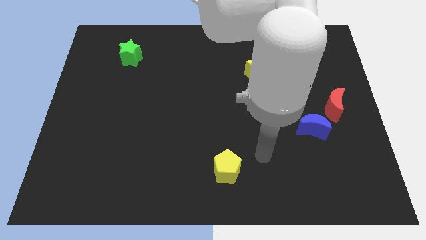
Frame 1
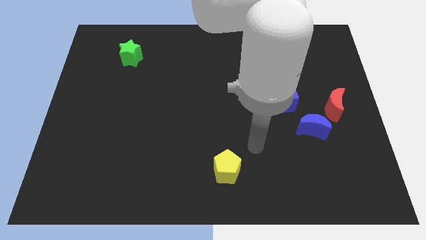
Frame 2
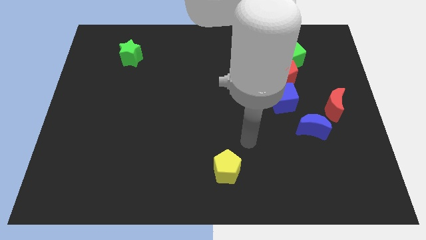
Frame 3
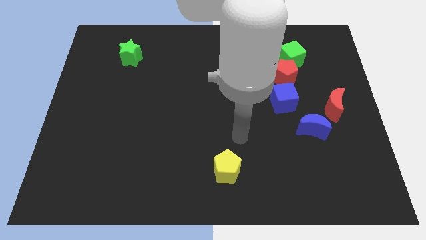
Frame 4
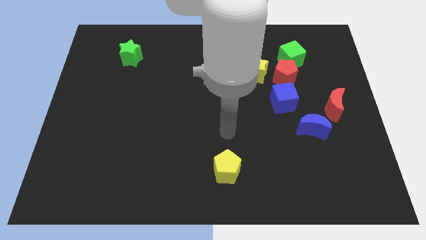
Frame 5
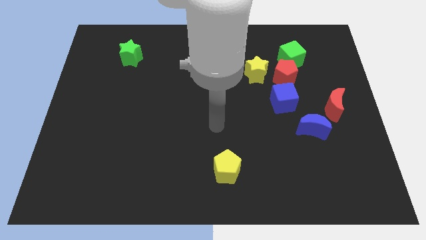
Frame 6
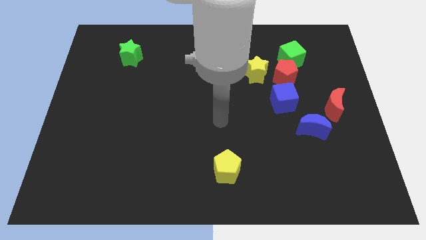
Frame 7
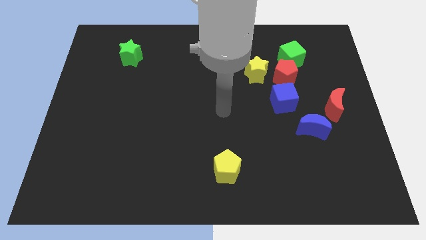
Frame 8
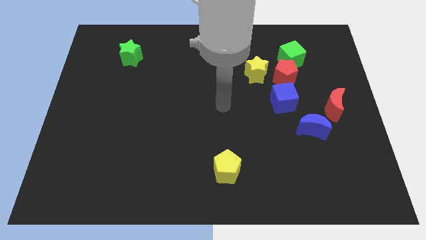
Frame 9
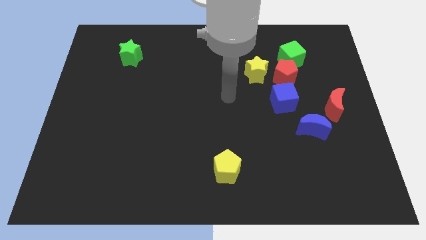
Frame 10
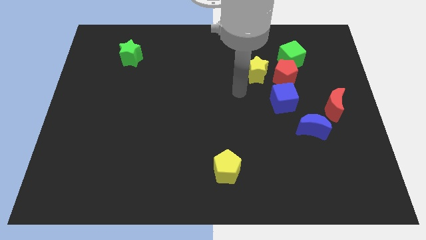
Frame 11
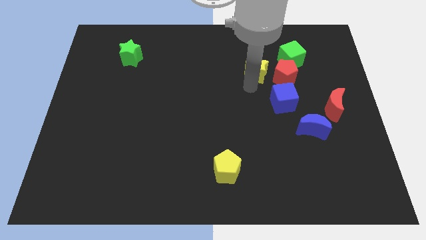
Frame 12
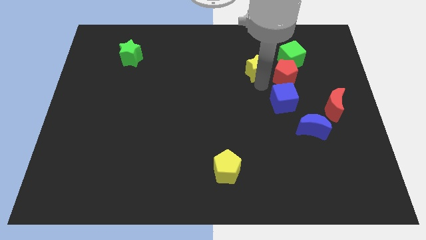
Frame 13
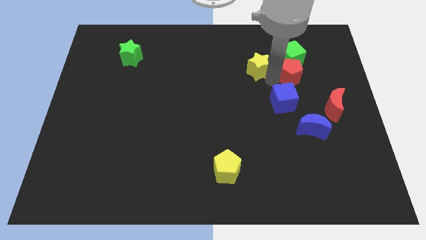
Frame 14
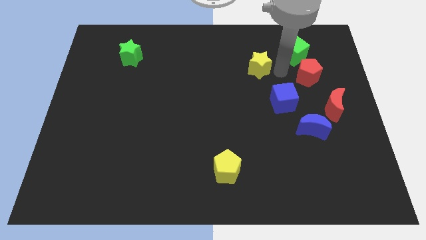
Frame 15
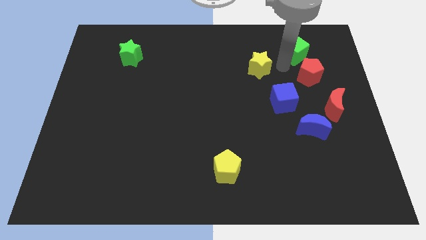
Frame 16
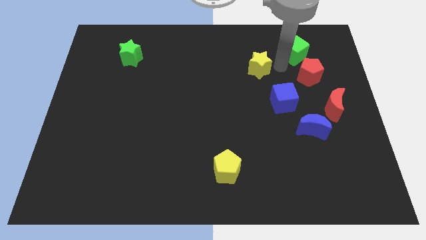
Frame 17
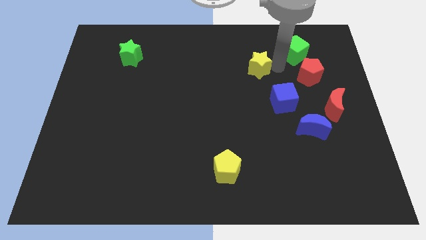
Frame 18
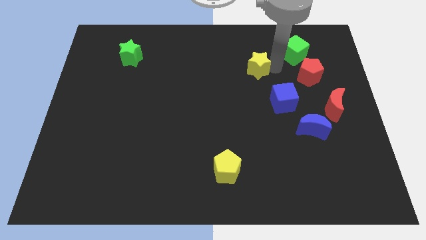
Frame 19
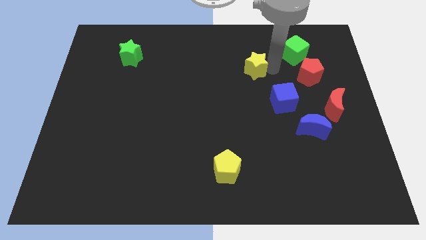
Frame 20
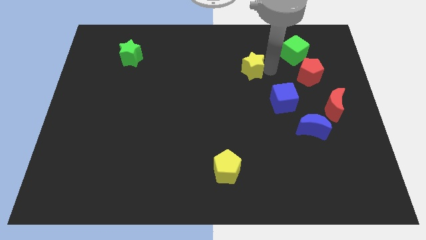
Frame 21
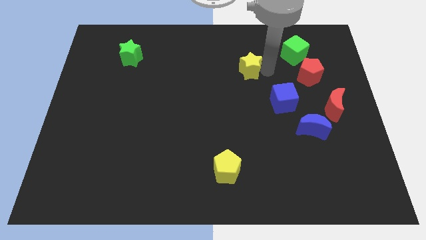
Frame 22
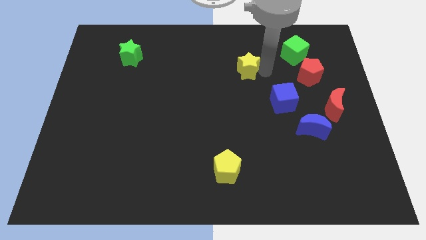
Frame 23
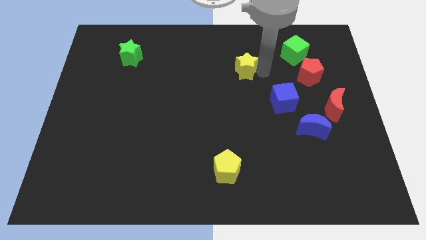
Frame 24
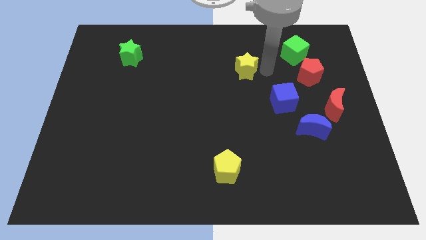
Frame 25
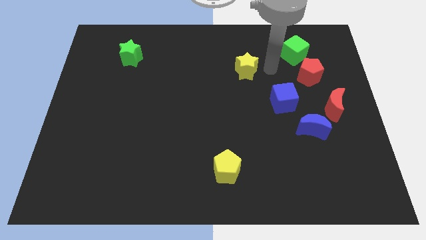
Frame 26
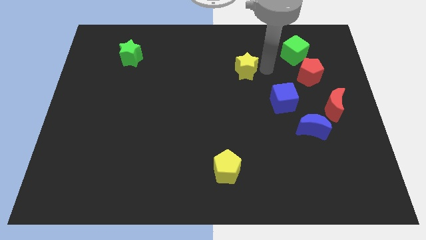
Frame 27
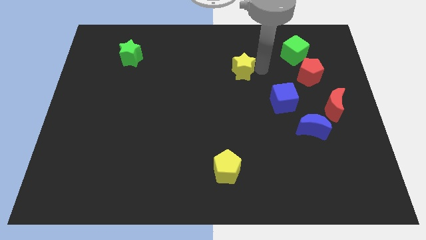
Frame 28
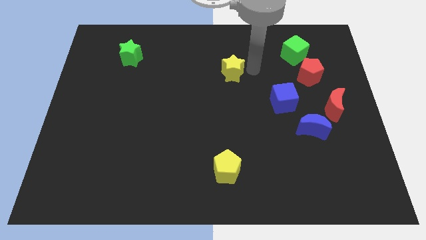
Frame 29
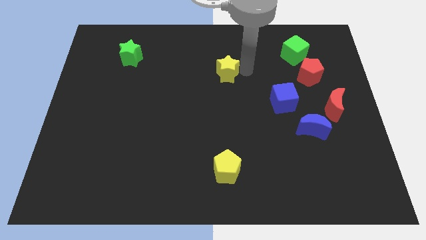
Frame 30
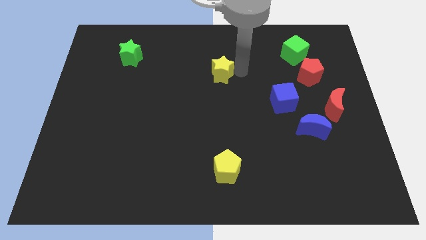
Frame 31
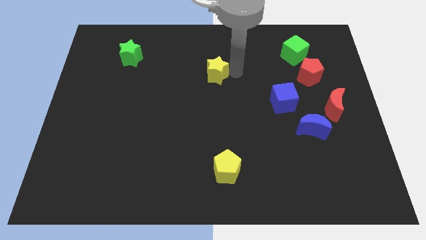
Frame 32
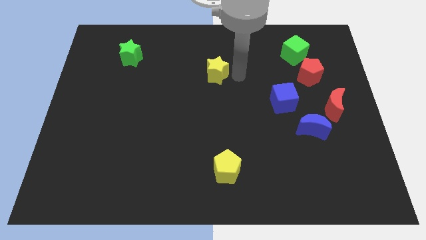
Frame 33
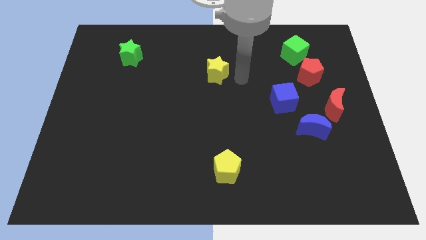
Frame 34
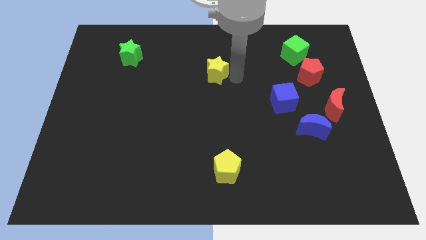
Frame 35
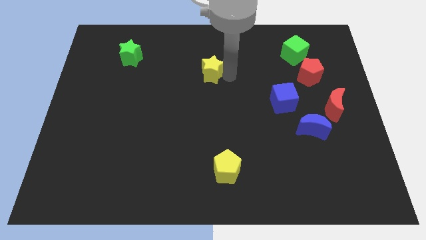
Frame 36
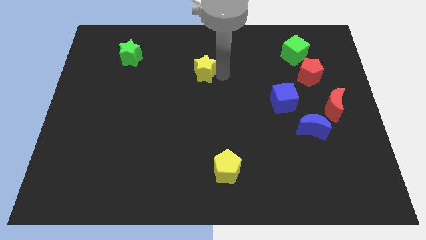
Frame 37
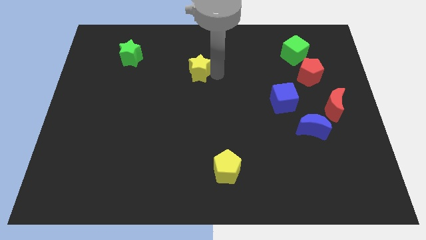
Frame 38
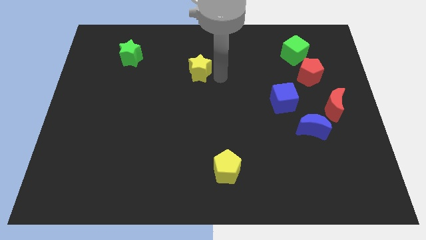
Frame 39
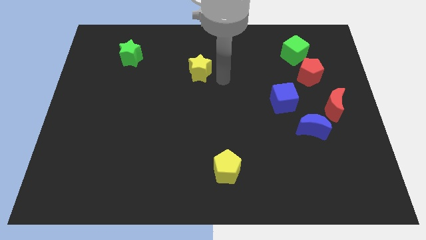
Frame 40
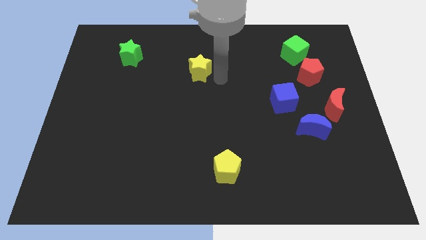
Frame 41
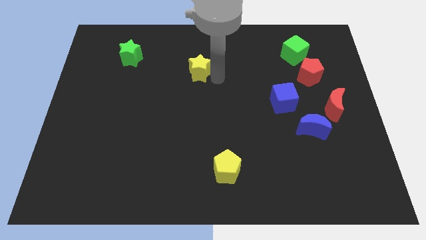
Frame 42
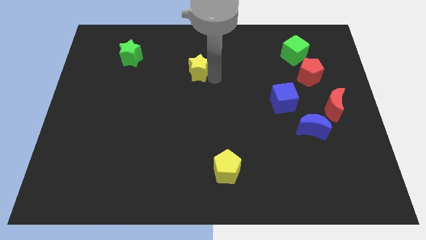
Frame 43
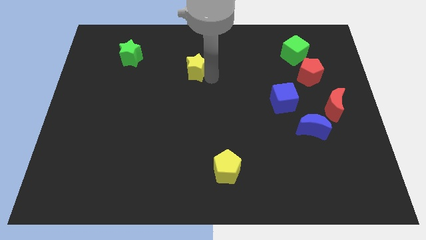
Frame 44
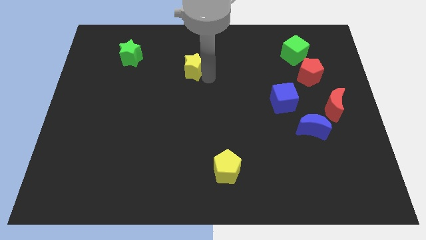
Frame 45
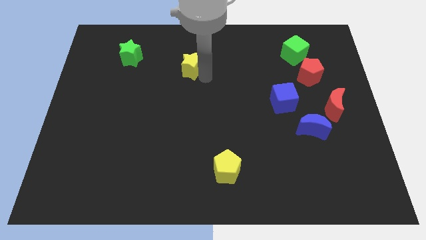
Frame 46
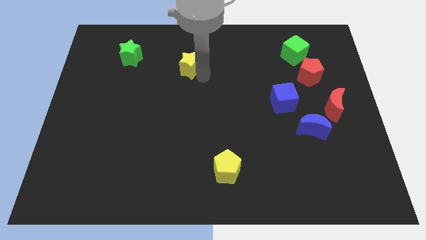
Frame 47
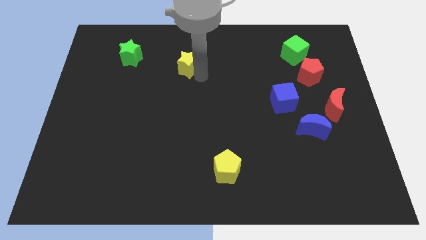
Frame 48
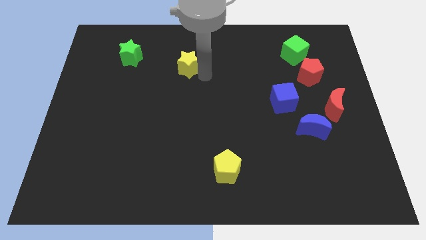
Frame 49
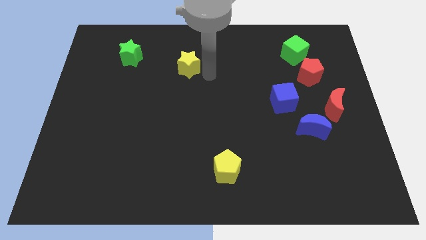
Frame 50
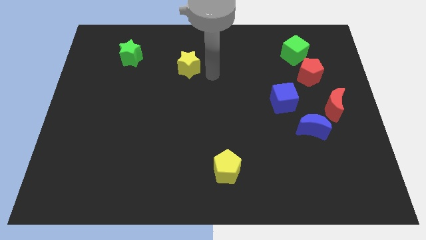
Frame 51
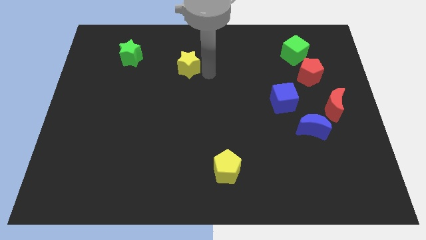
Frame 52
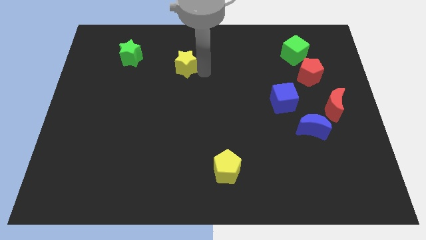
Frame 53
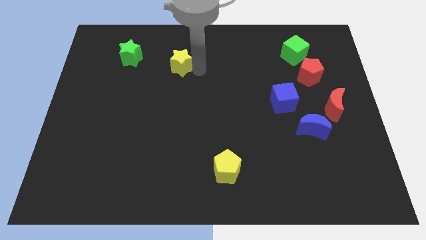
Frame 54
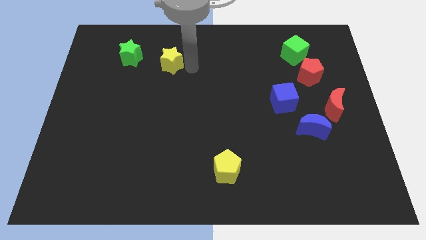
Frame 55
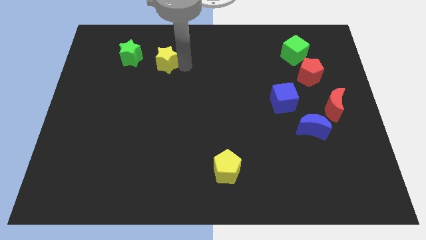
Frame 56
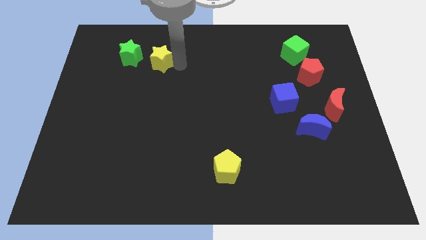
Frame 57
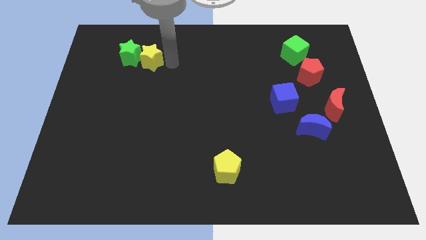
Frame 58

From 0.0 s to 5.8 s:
move the yellow star towards the green star

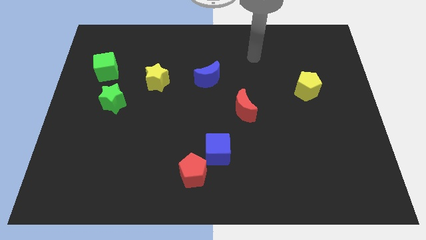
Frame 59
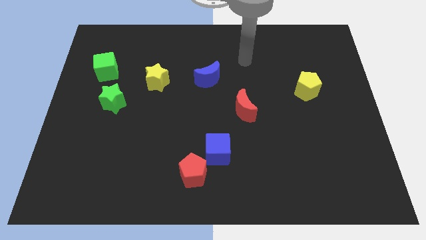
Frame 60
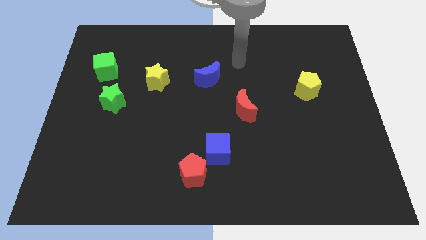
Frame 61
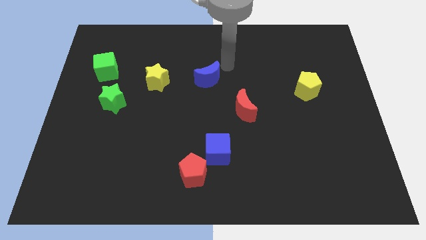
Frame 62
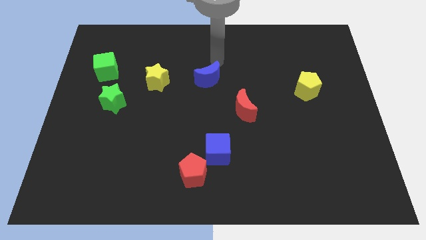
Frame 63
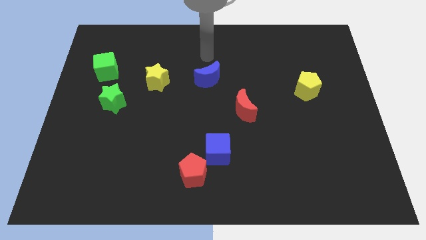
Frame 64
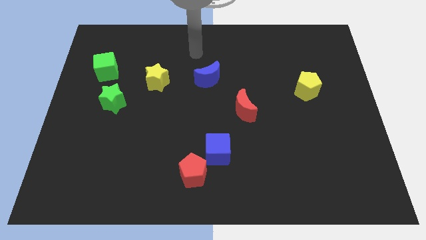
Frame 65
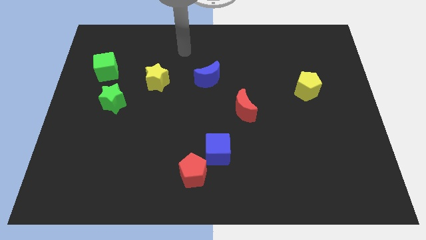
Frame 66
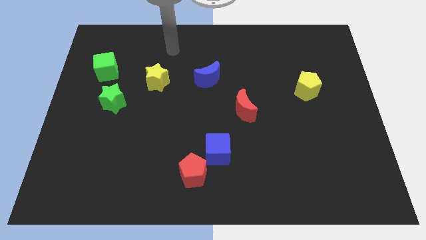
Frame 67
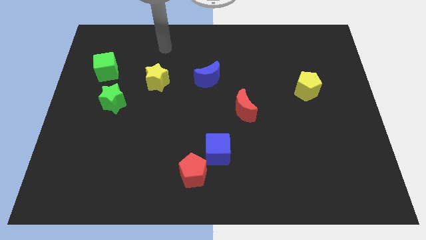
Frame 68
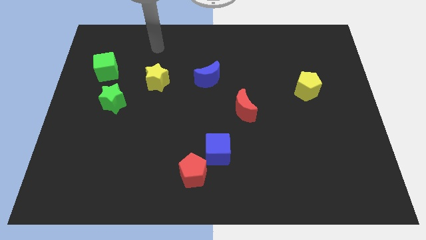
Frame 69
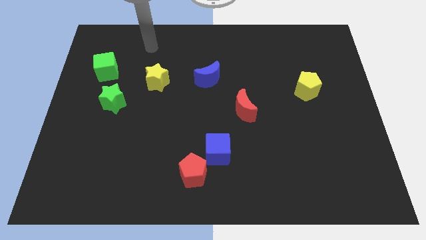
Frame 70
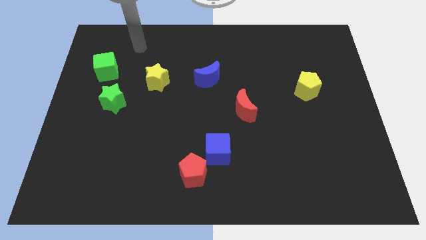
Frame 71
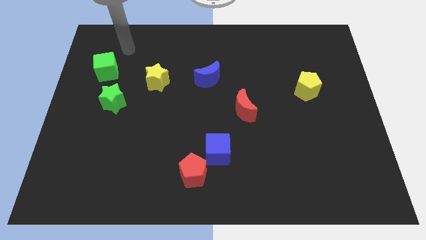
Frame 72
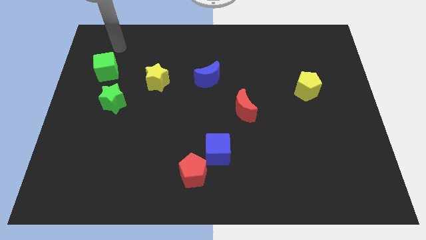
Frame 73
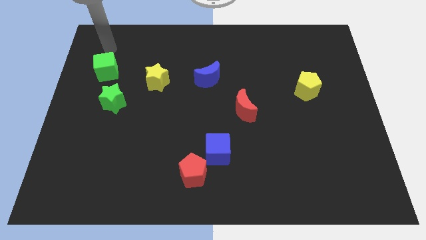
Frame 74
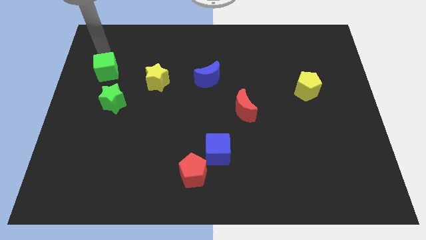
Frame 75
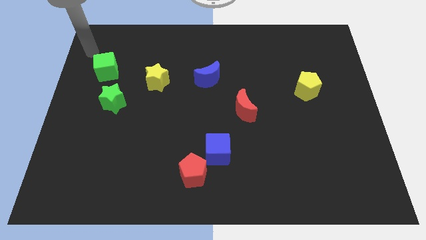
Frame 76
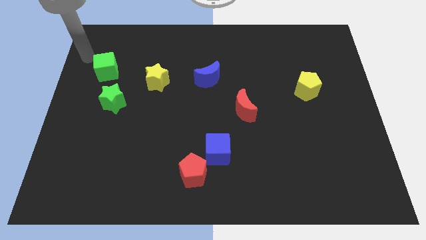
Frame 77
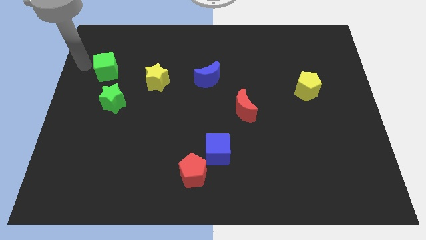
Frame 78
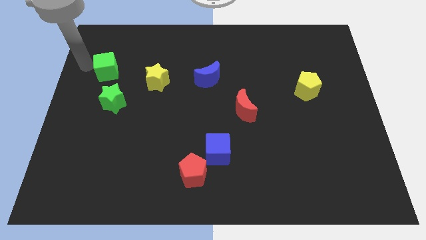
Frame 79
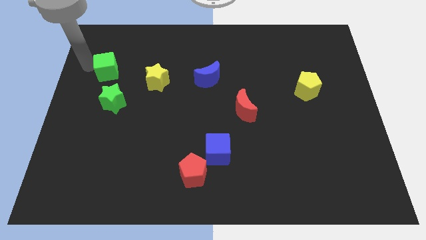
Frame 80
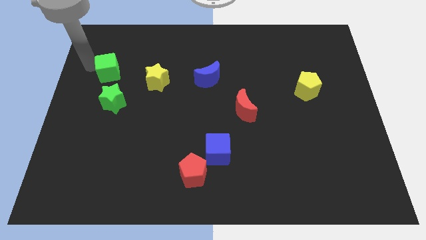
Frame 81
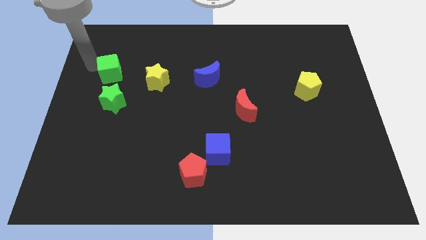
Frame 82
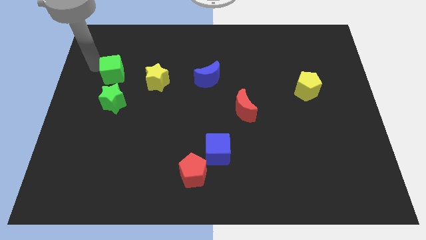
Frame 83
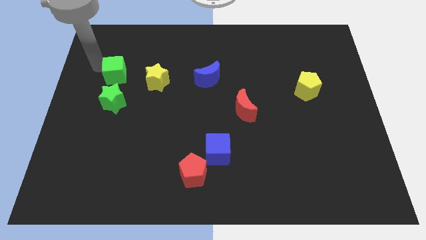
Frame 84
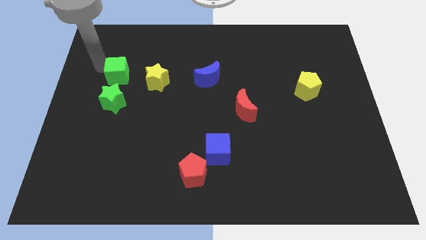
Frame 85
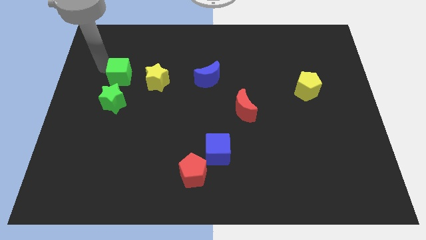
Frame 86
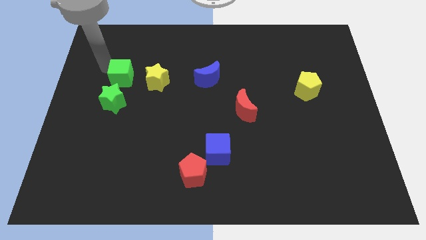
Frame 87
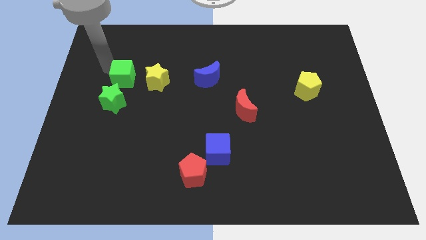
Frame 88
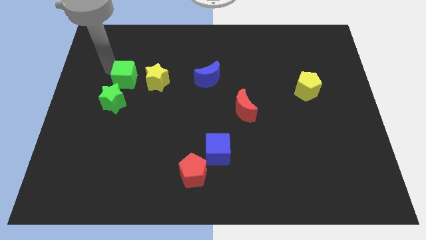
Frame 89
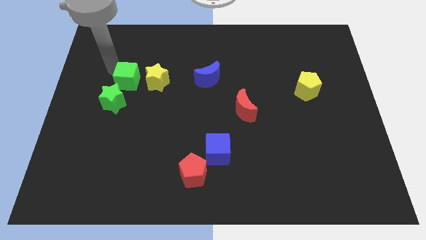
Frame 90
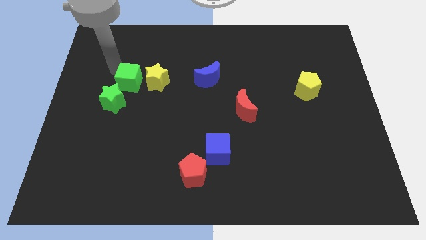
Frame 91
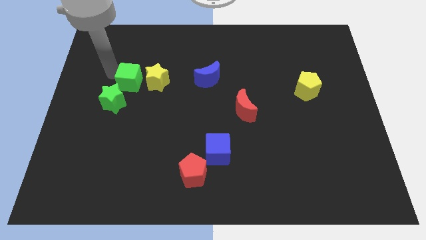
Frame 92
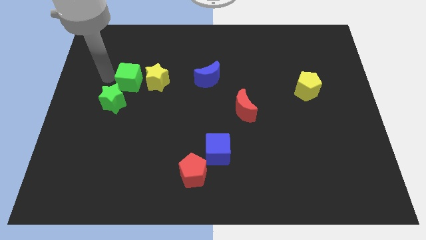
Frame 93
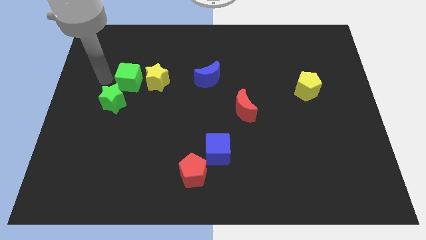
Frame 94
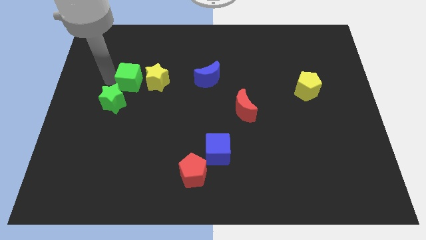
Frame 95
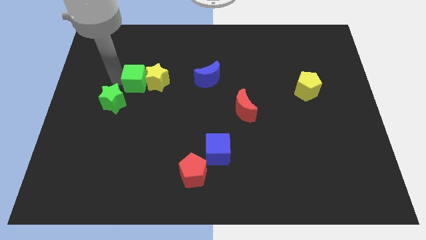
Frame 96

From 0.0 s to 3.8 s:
slide the green cube next to the yellow star
